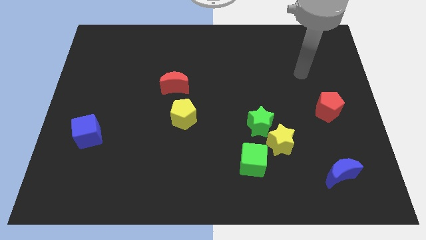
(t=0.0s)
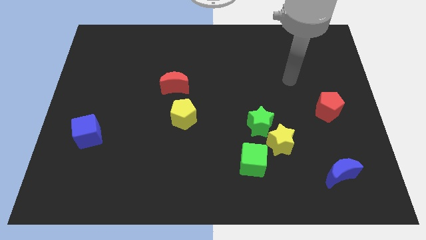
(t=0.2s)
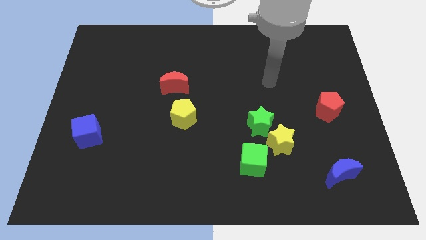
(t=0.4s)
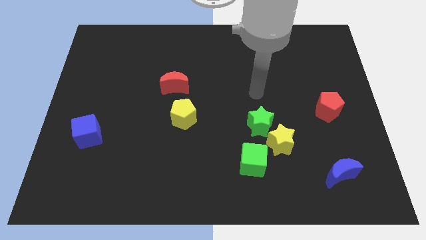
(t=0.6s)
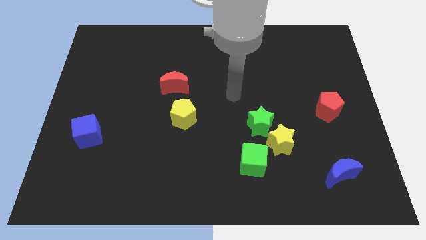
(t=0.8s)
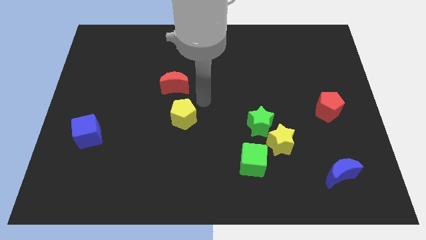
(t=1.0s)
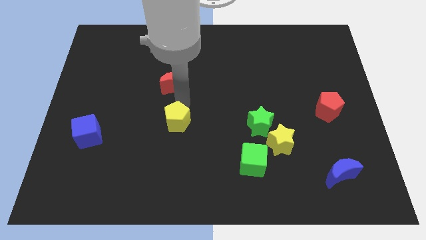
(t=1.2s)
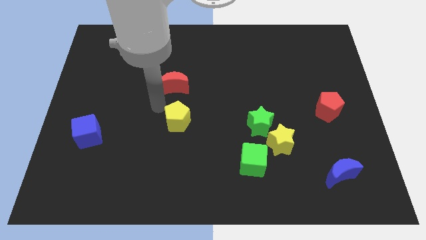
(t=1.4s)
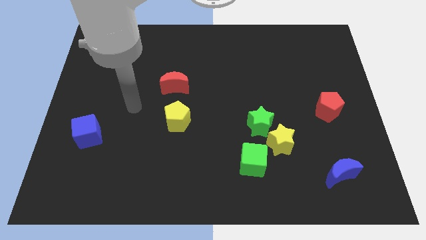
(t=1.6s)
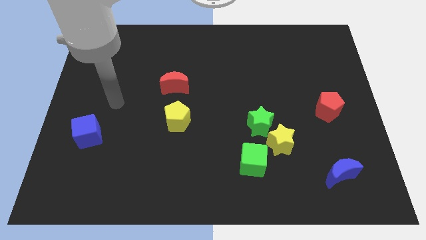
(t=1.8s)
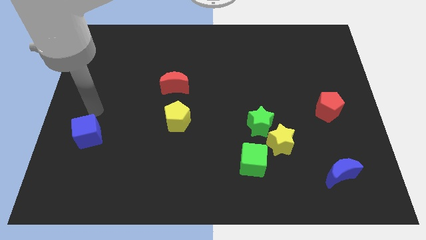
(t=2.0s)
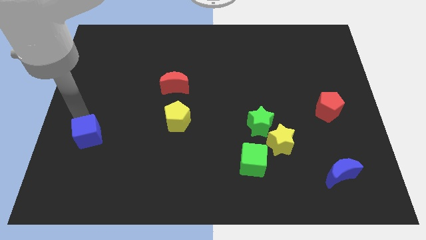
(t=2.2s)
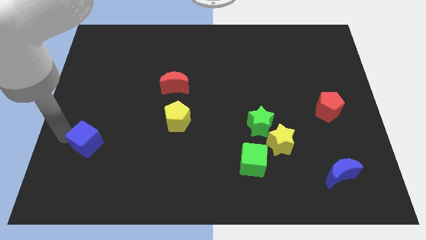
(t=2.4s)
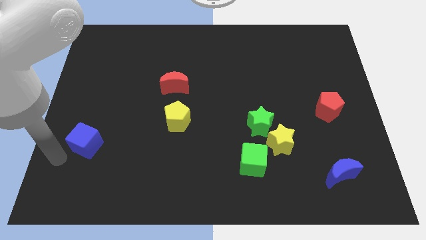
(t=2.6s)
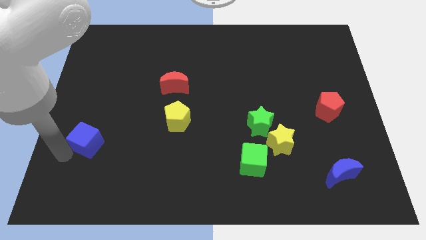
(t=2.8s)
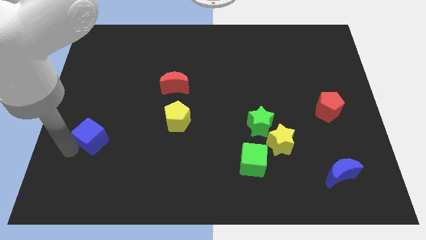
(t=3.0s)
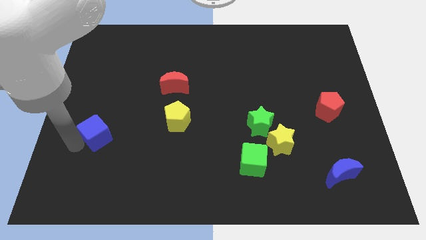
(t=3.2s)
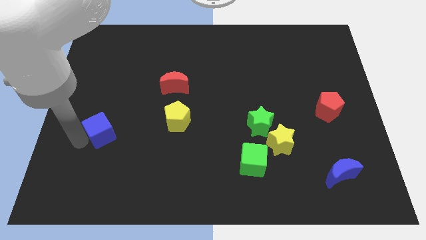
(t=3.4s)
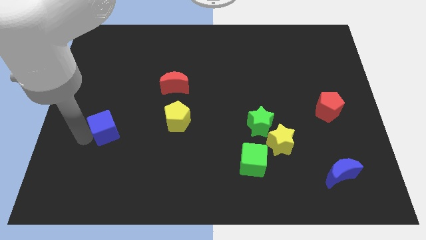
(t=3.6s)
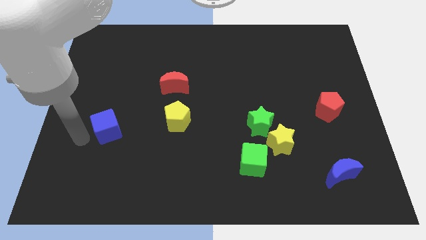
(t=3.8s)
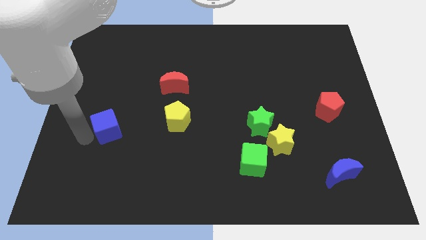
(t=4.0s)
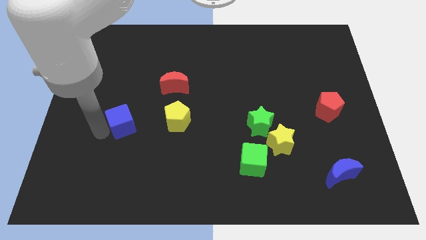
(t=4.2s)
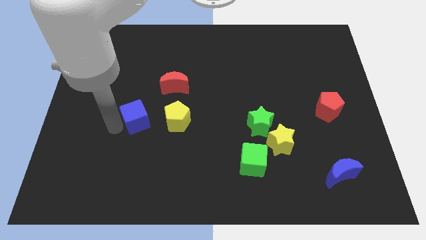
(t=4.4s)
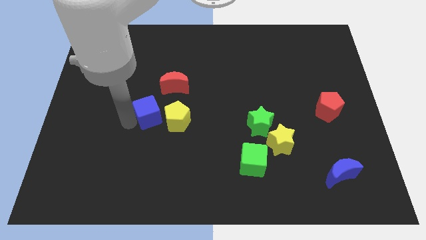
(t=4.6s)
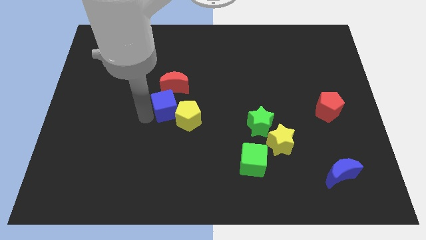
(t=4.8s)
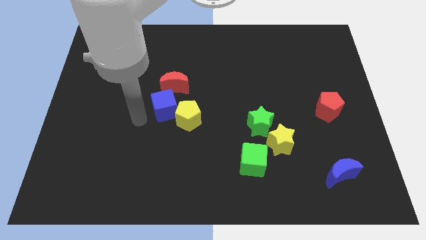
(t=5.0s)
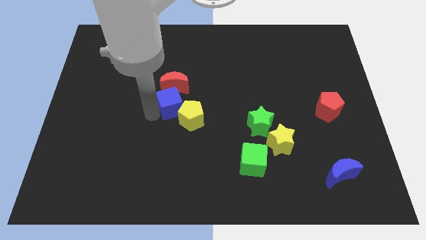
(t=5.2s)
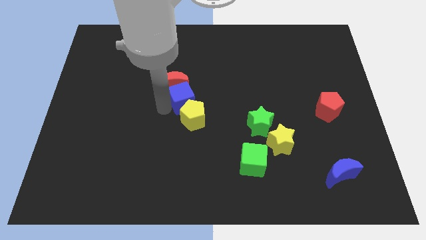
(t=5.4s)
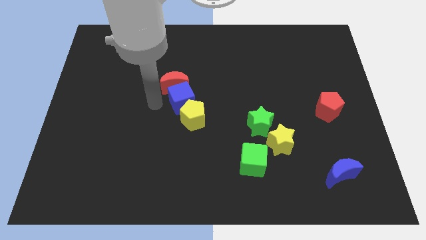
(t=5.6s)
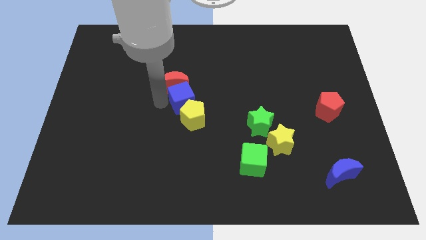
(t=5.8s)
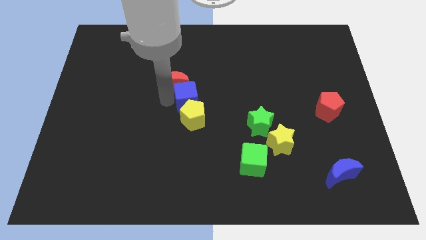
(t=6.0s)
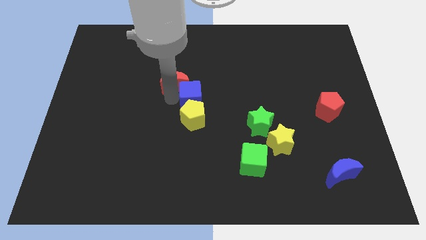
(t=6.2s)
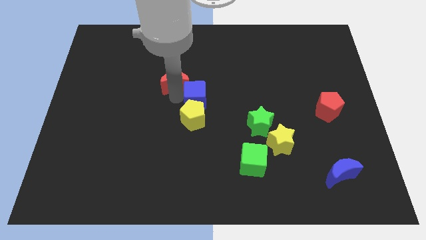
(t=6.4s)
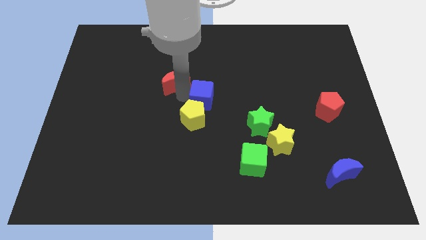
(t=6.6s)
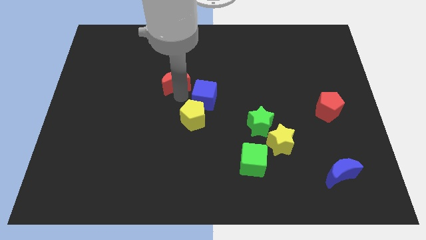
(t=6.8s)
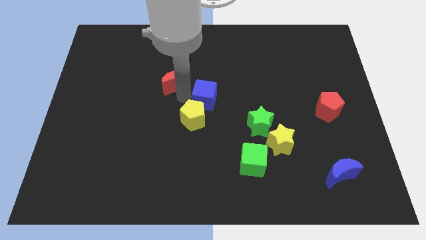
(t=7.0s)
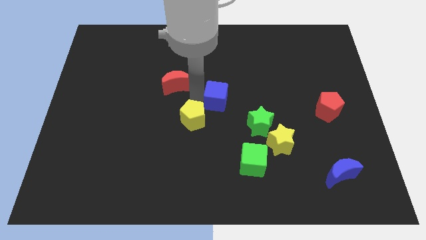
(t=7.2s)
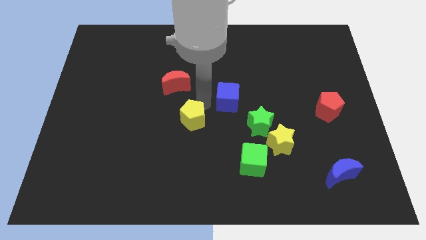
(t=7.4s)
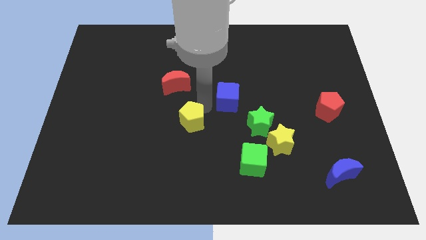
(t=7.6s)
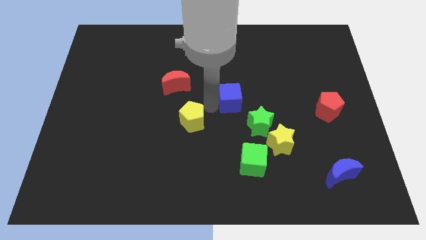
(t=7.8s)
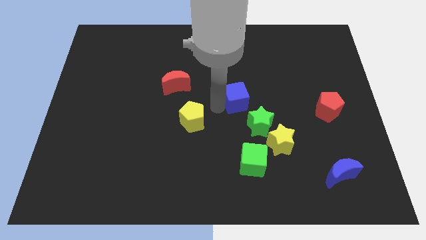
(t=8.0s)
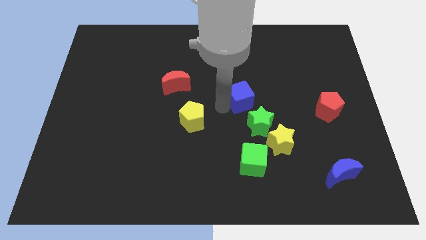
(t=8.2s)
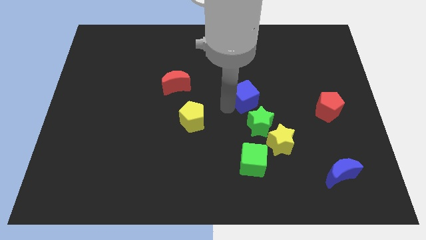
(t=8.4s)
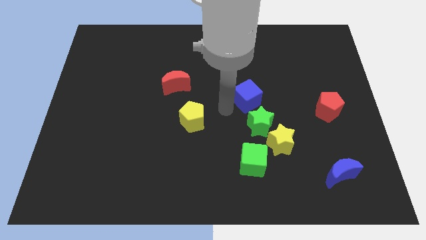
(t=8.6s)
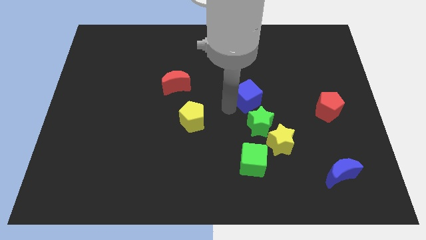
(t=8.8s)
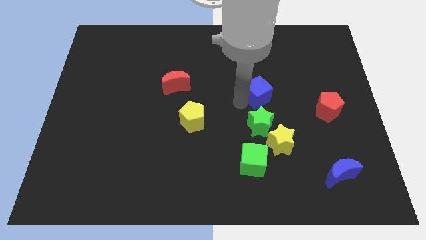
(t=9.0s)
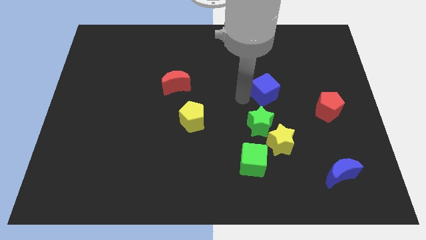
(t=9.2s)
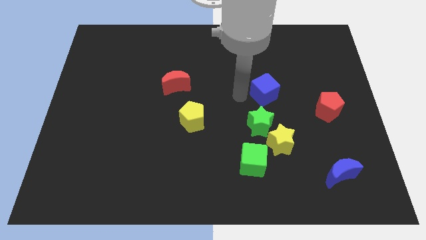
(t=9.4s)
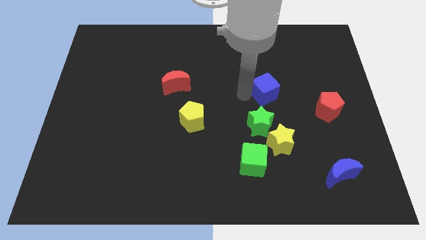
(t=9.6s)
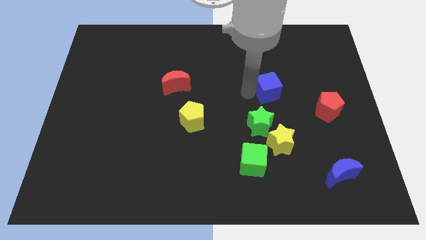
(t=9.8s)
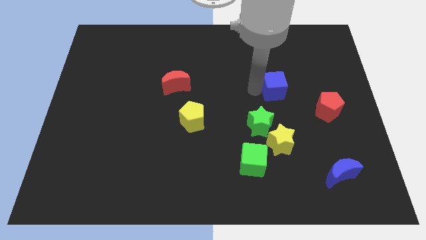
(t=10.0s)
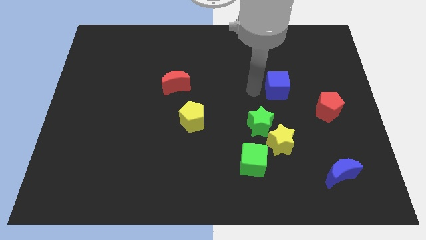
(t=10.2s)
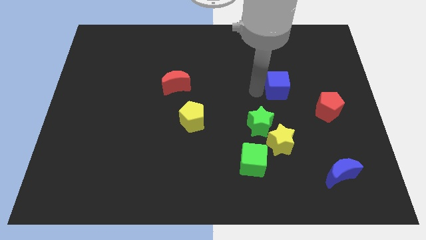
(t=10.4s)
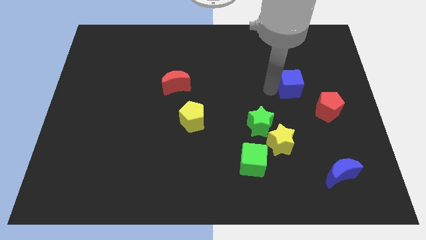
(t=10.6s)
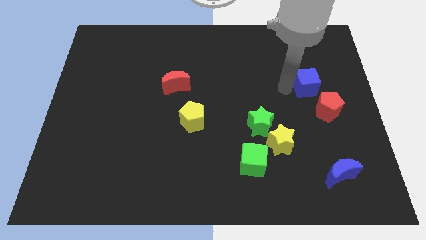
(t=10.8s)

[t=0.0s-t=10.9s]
move the blue cube to the top side of the red pentagon

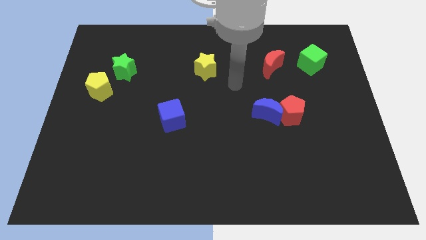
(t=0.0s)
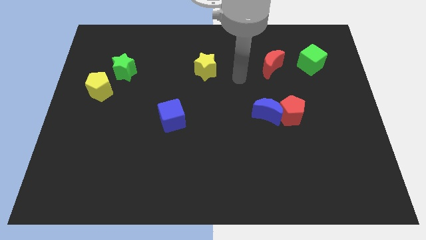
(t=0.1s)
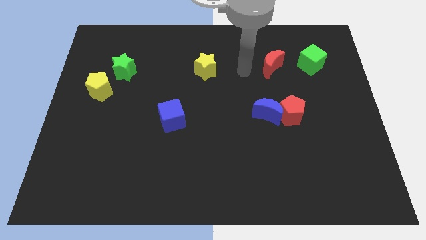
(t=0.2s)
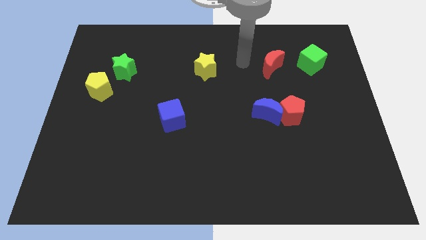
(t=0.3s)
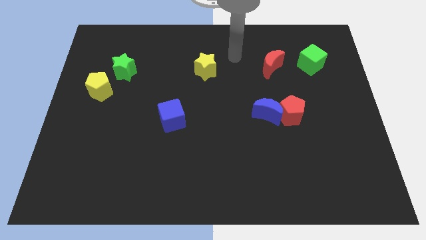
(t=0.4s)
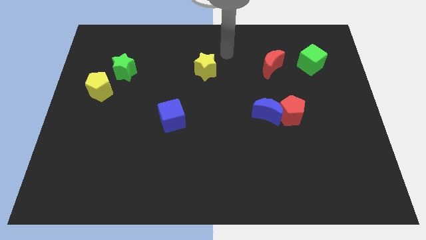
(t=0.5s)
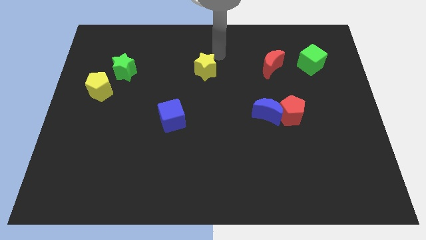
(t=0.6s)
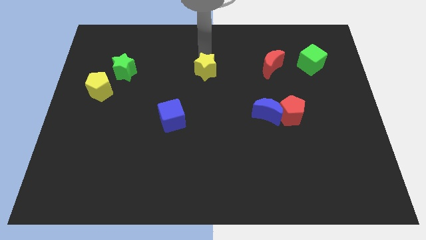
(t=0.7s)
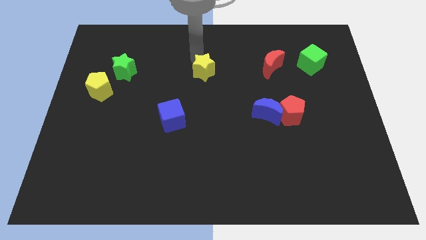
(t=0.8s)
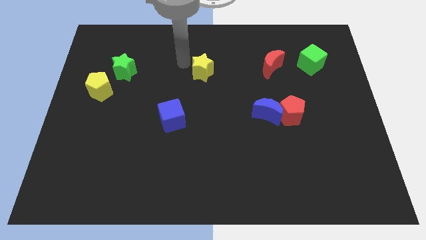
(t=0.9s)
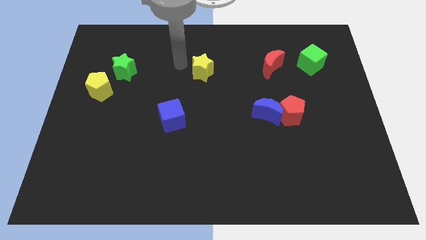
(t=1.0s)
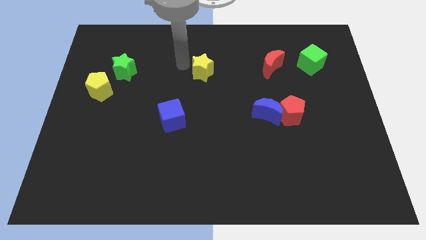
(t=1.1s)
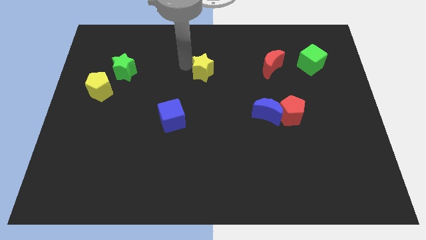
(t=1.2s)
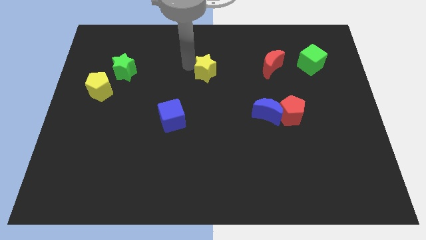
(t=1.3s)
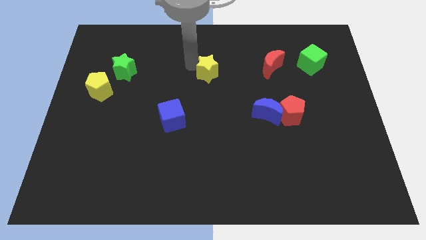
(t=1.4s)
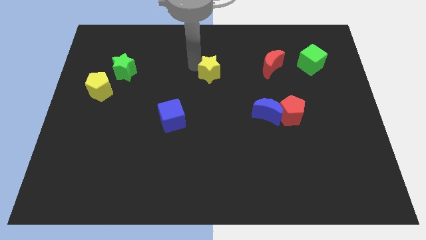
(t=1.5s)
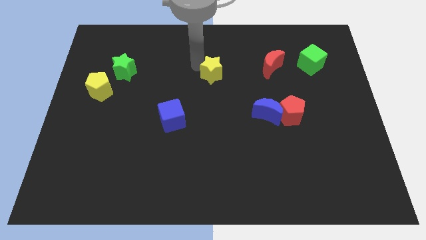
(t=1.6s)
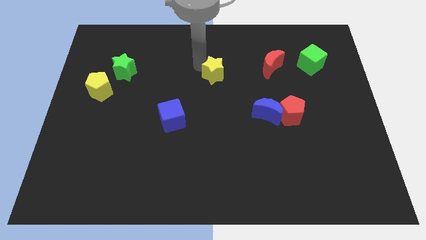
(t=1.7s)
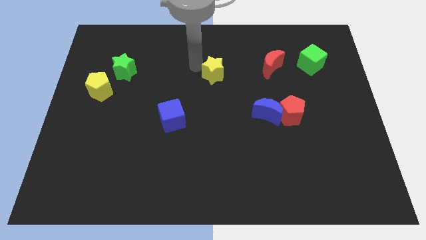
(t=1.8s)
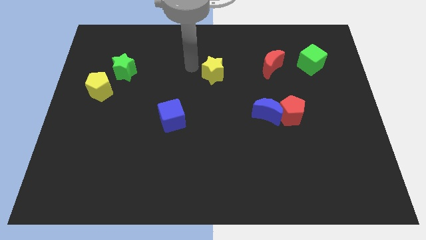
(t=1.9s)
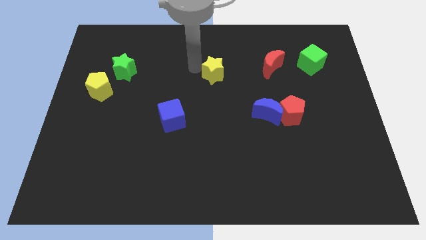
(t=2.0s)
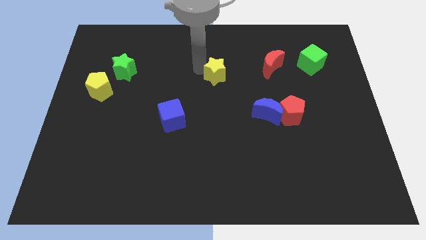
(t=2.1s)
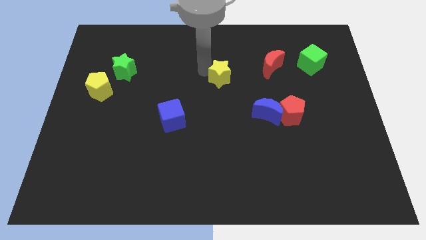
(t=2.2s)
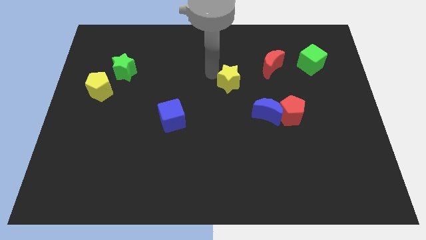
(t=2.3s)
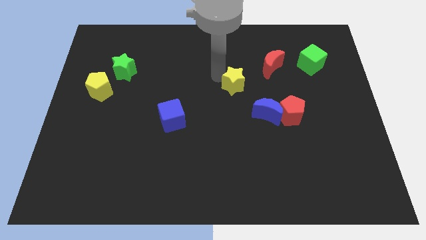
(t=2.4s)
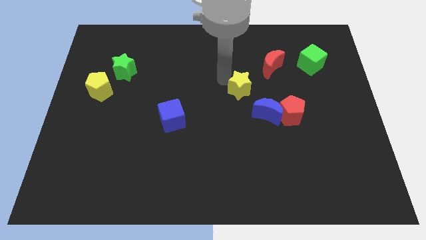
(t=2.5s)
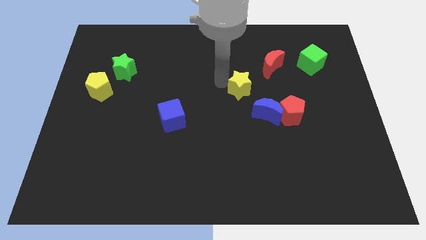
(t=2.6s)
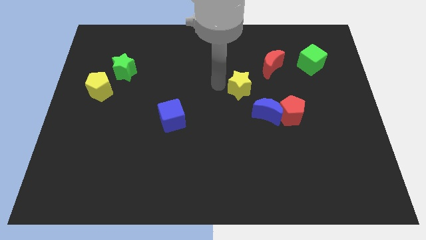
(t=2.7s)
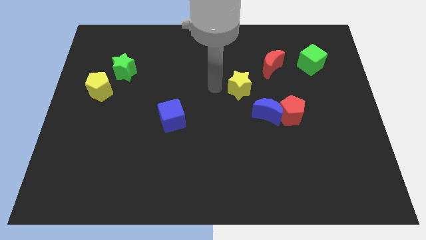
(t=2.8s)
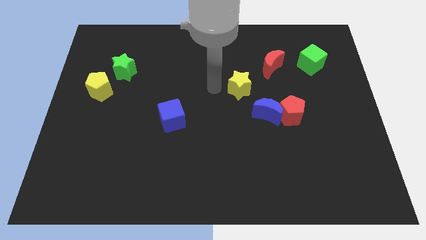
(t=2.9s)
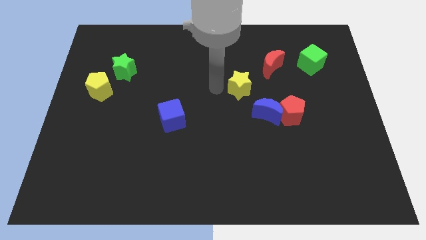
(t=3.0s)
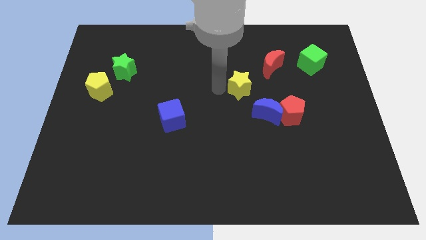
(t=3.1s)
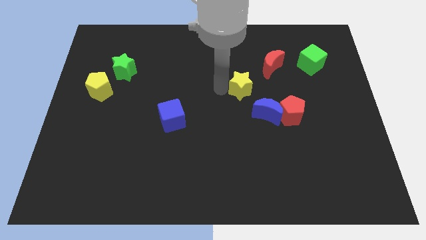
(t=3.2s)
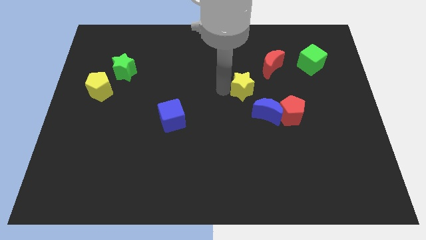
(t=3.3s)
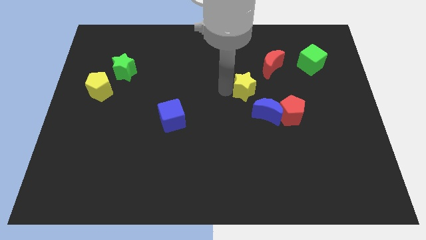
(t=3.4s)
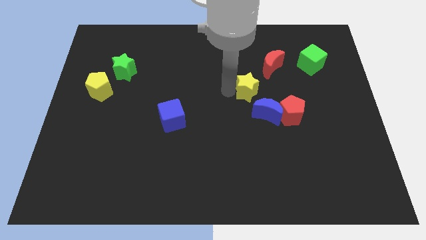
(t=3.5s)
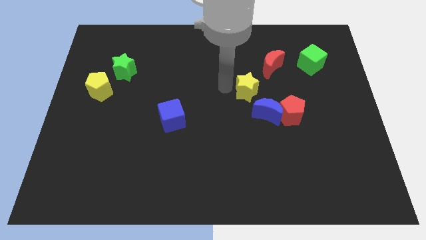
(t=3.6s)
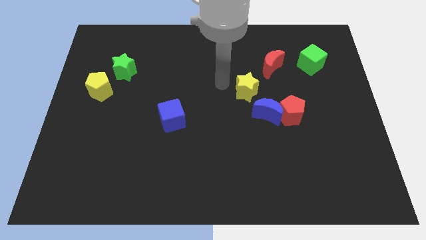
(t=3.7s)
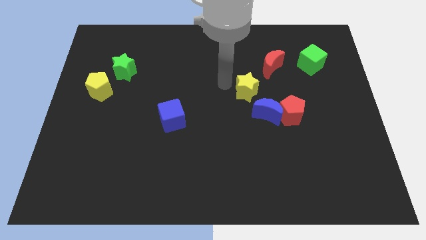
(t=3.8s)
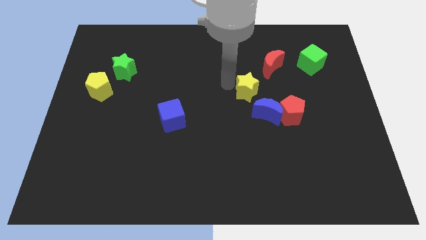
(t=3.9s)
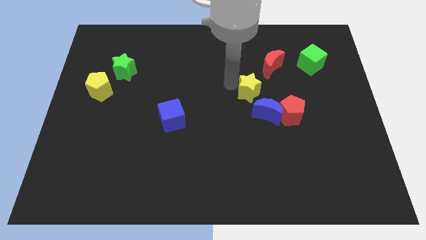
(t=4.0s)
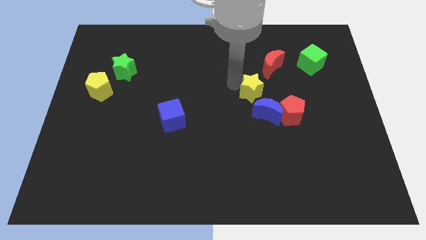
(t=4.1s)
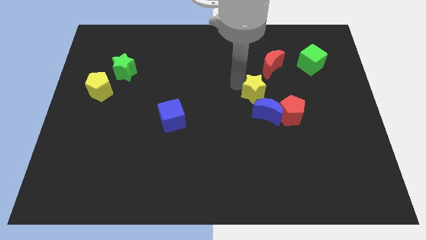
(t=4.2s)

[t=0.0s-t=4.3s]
push the yellow star to the bottom of the red moon
